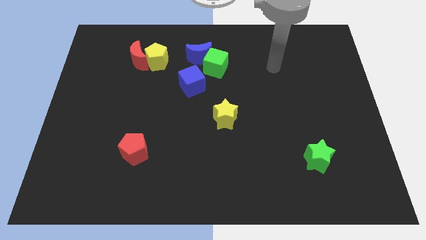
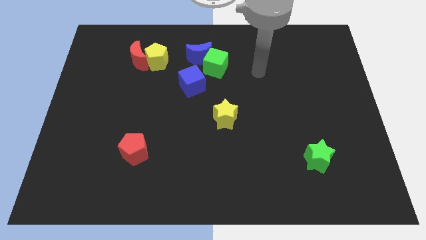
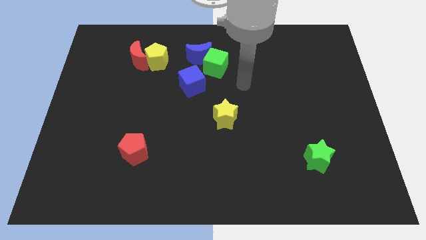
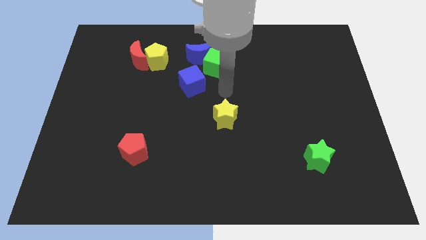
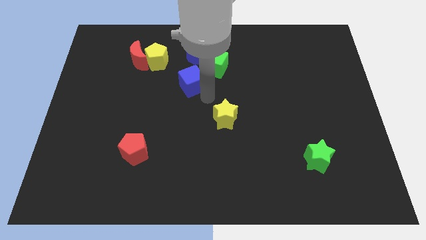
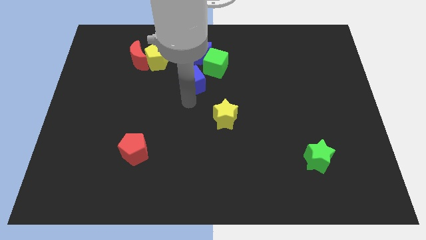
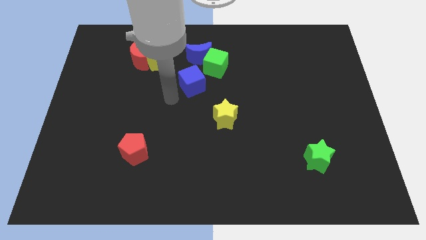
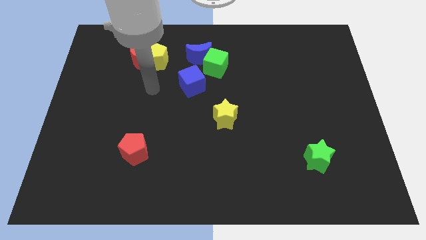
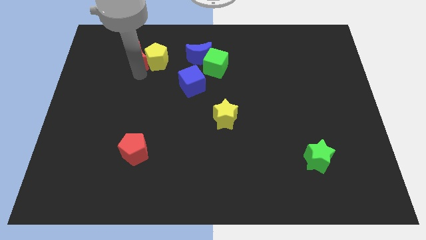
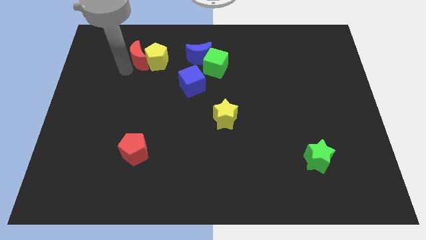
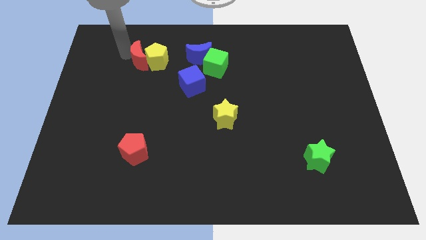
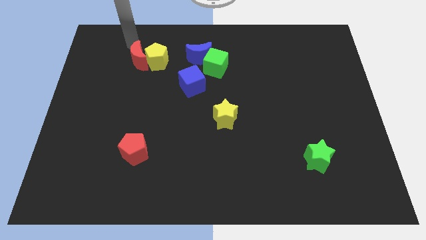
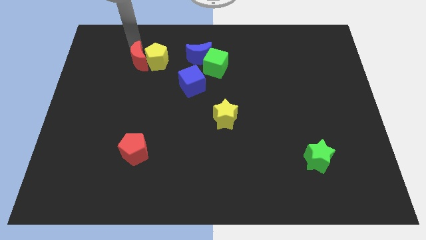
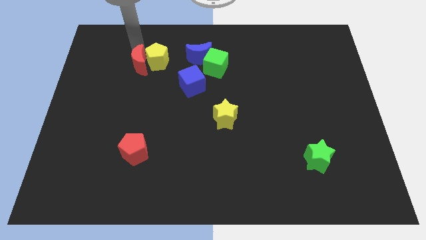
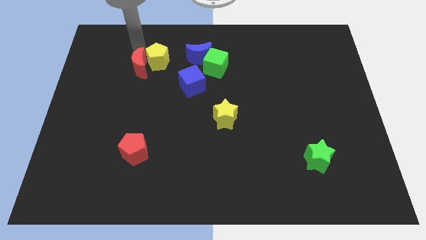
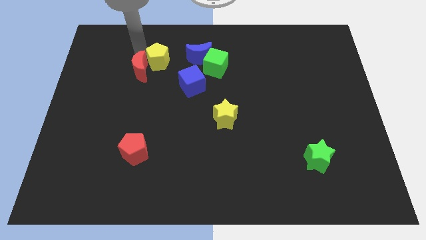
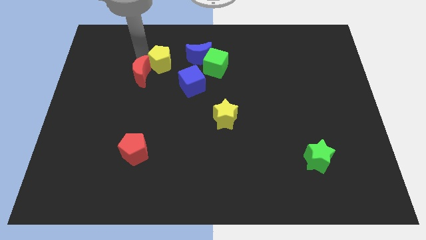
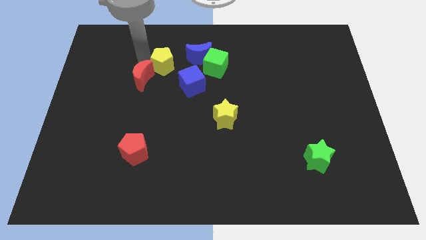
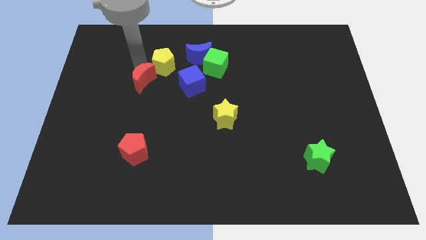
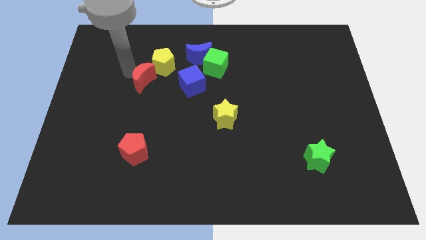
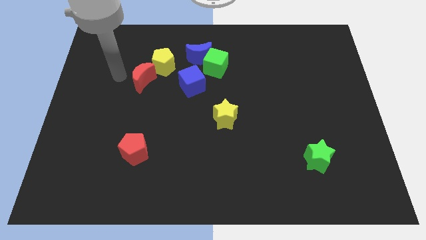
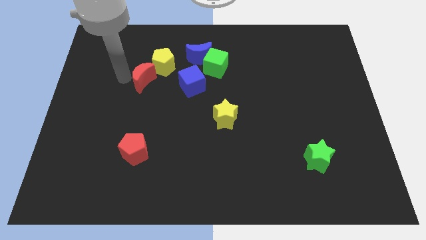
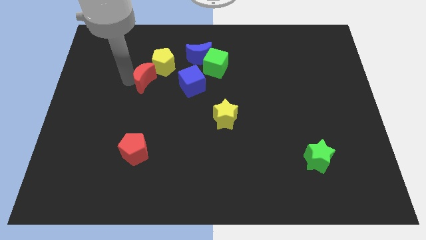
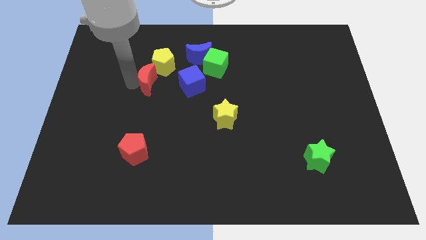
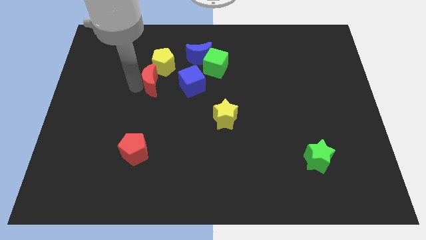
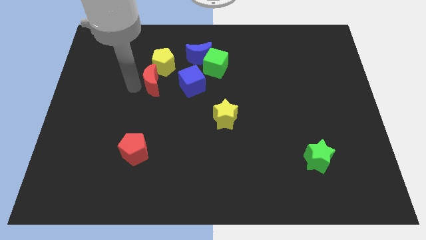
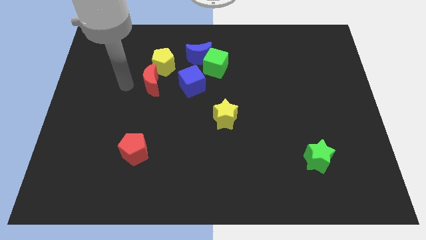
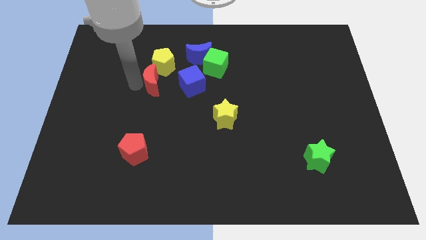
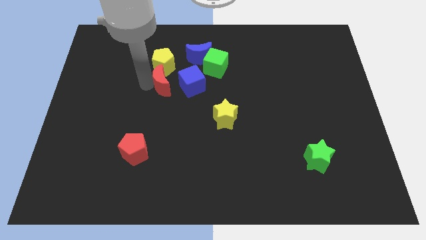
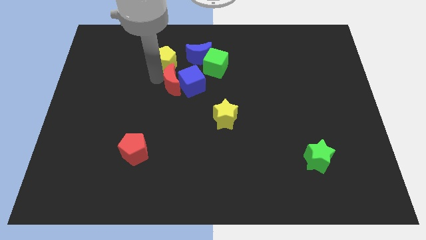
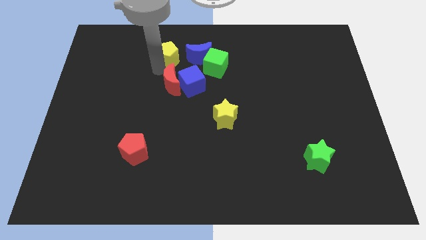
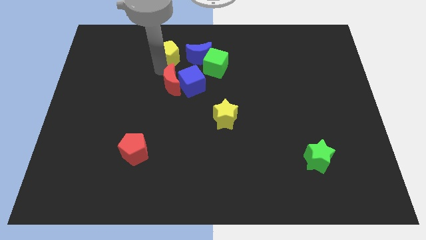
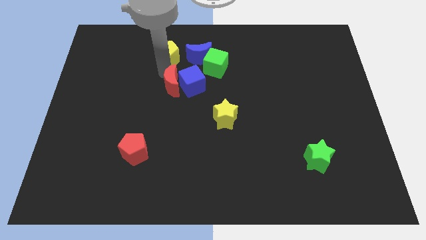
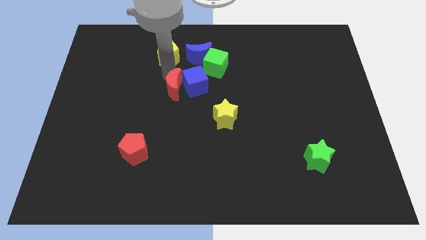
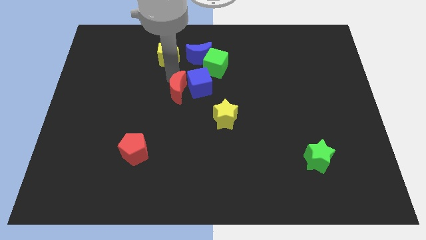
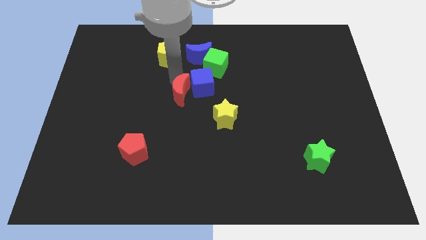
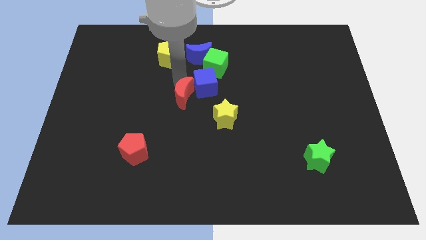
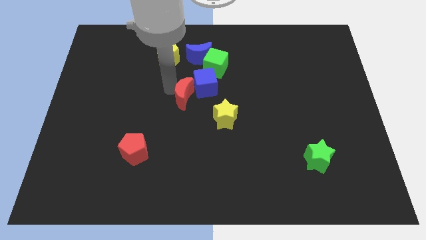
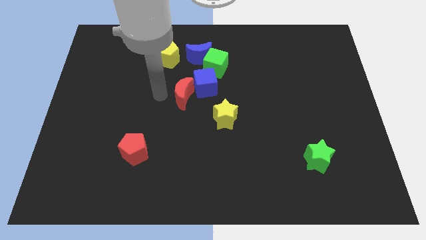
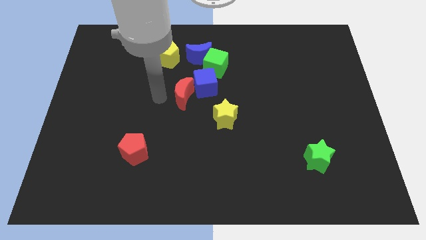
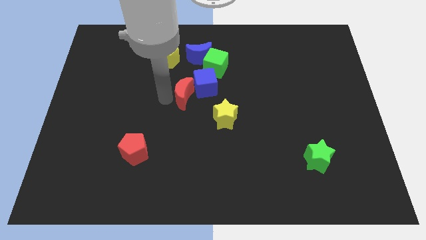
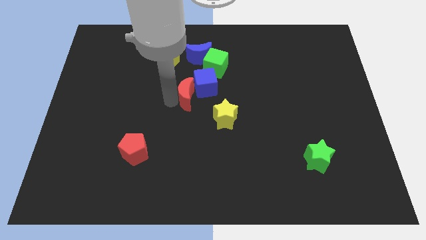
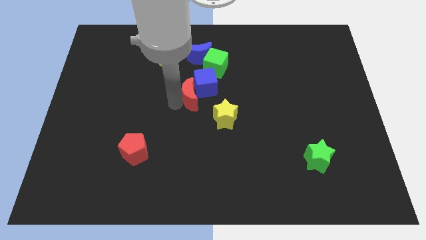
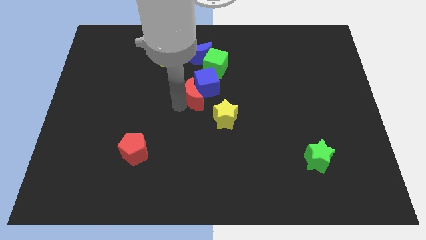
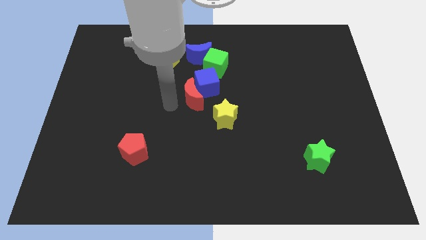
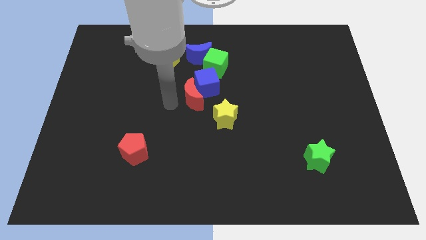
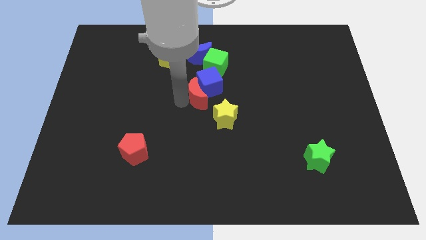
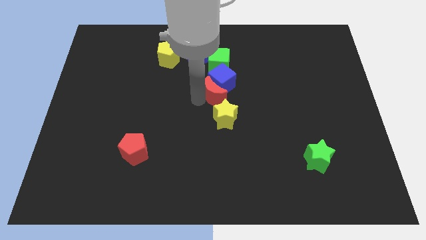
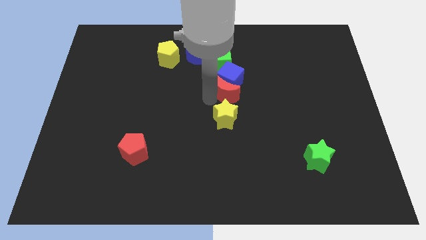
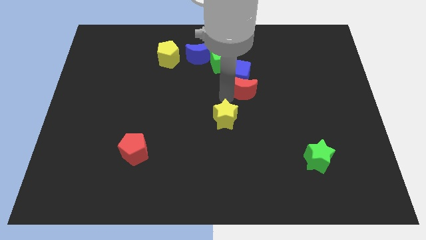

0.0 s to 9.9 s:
move the red moon to the right

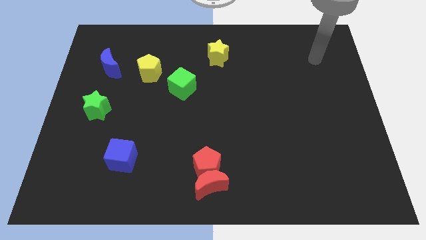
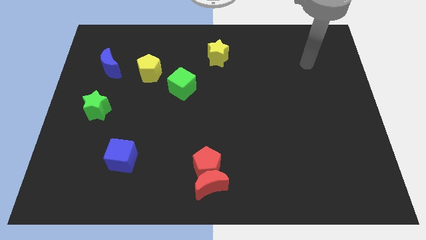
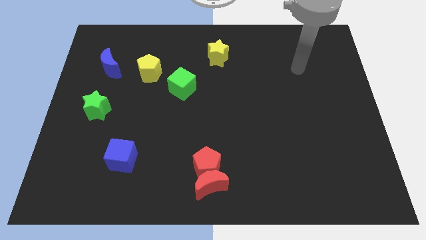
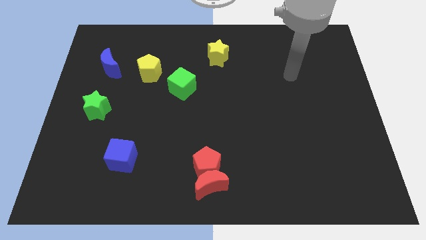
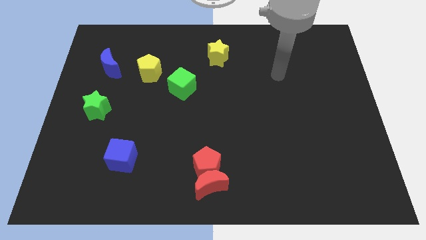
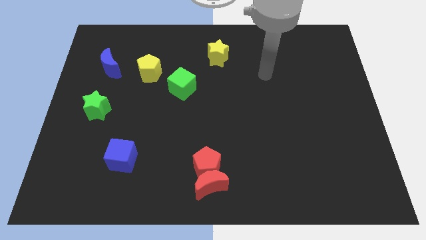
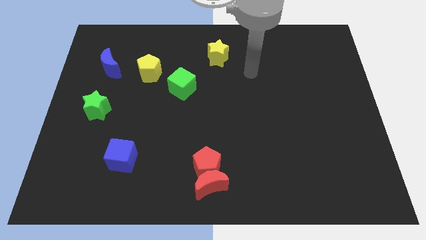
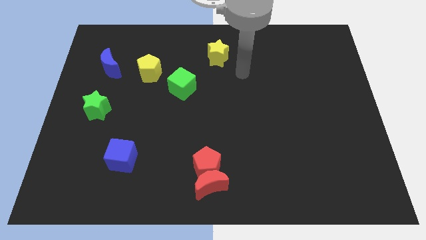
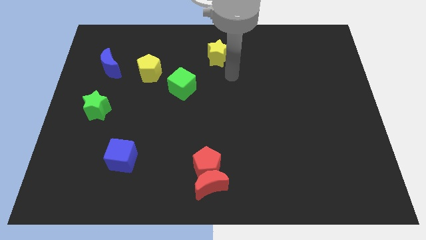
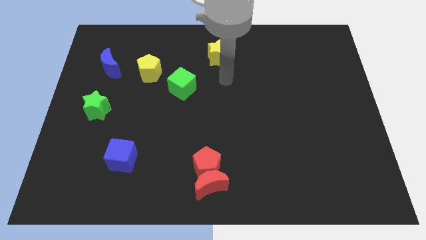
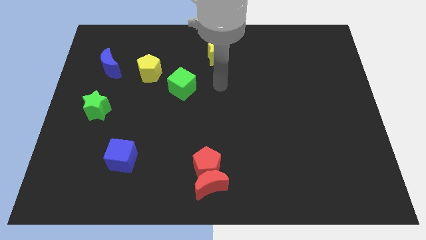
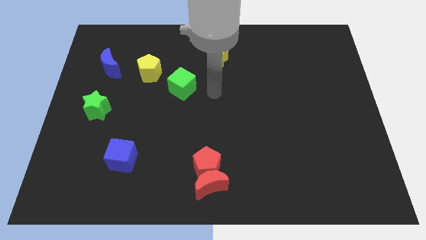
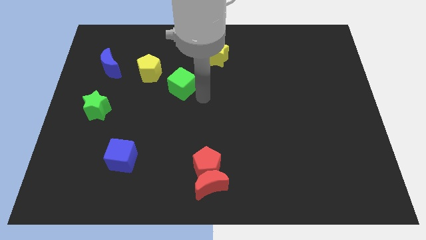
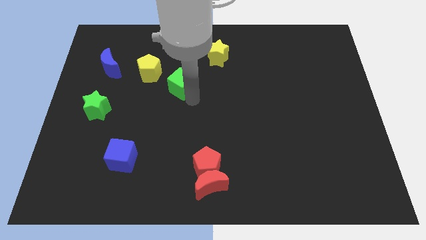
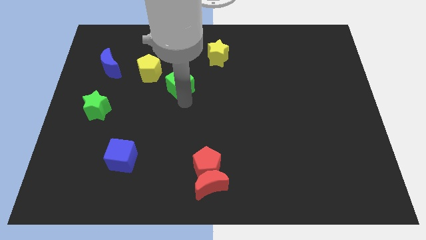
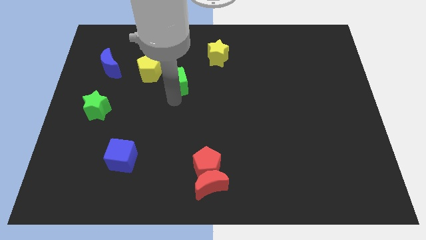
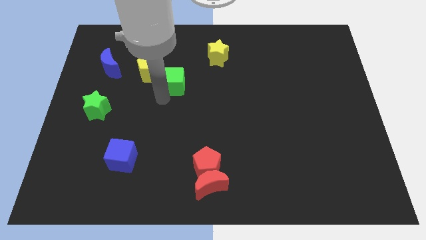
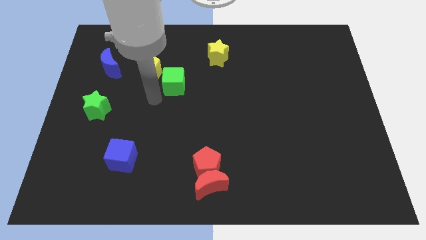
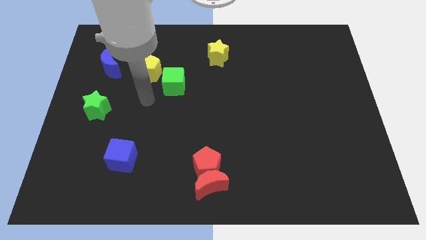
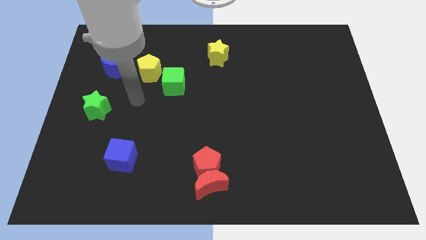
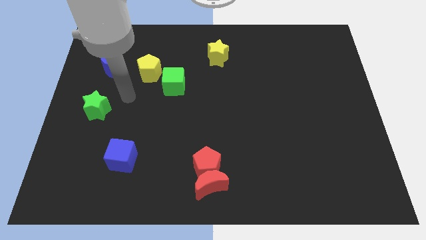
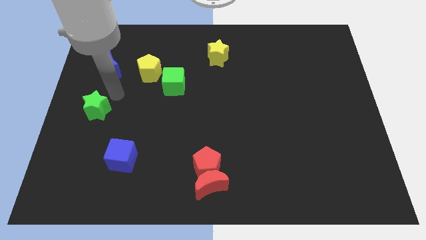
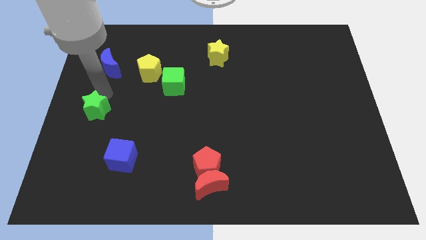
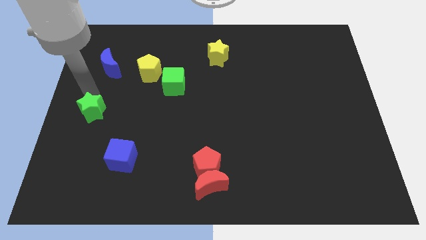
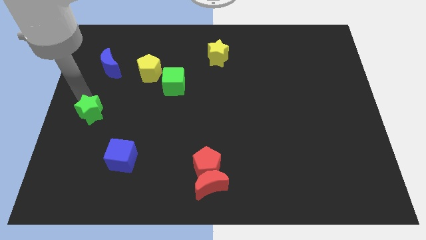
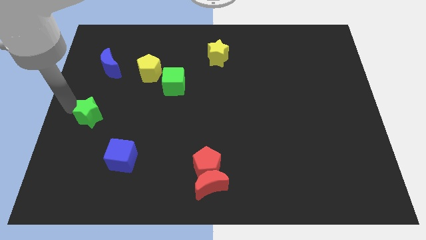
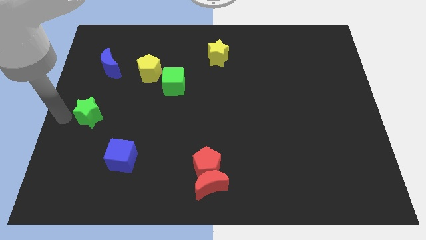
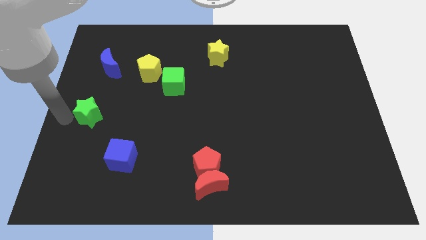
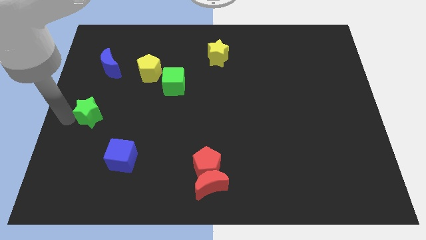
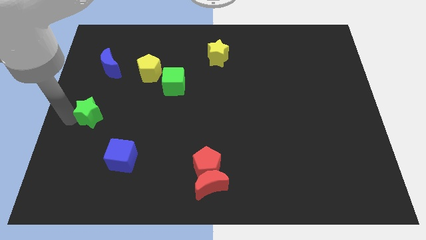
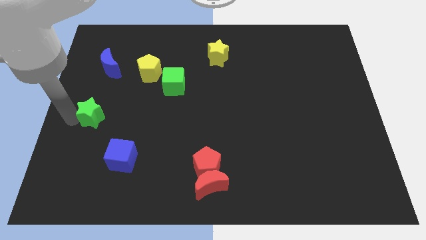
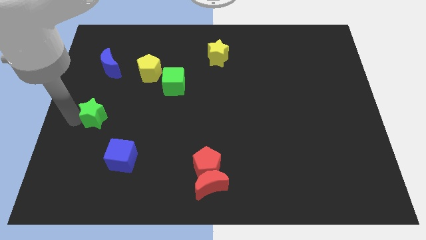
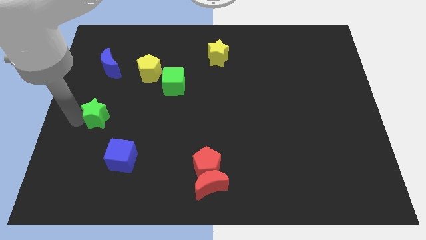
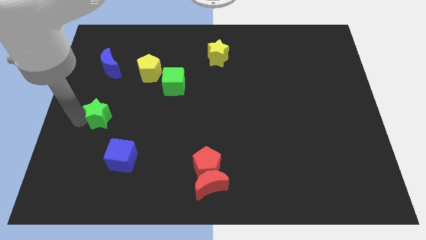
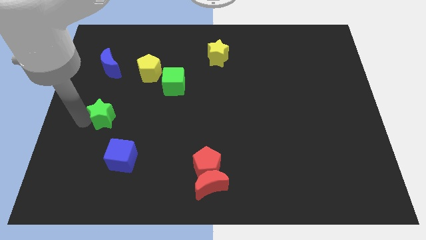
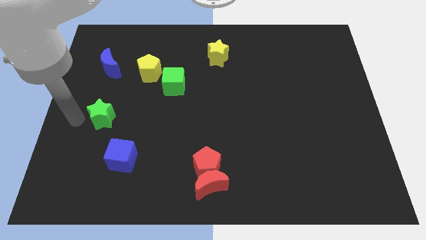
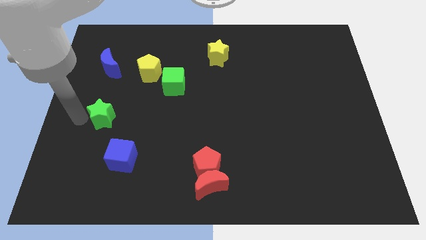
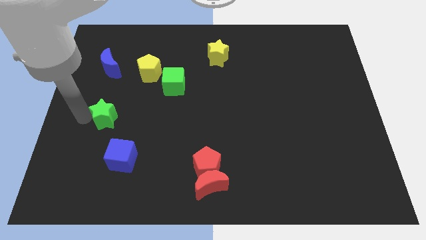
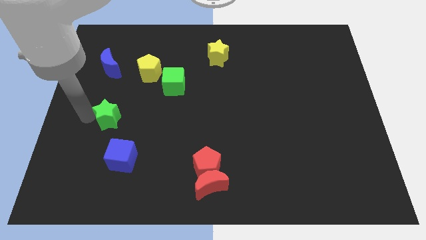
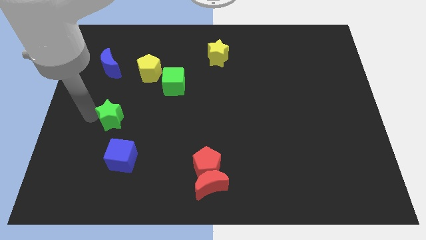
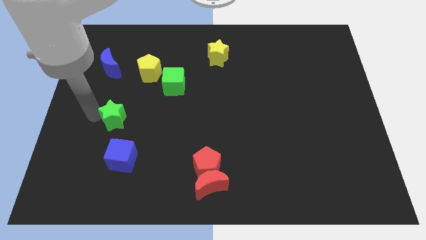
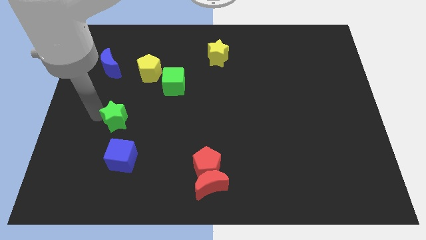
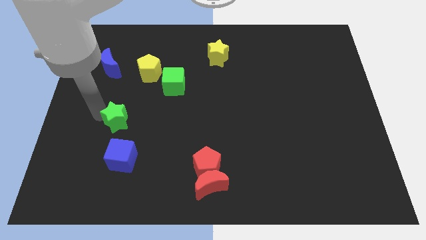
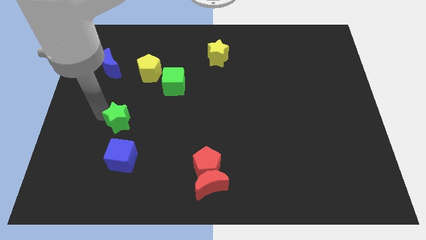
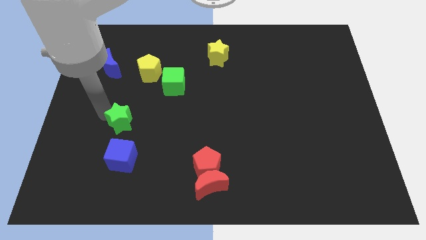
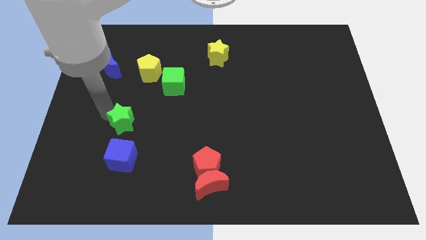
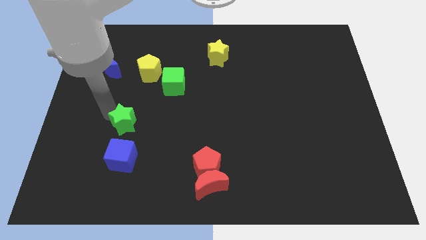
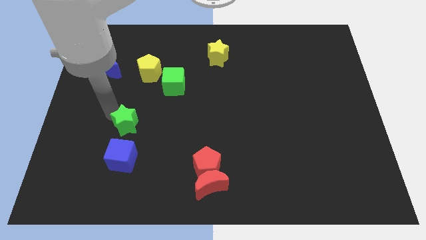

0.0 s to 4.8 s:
push the green star right a little bit
